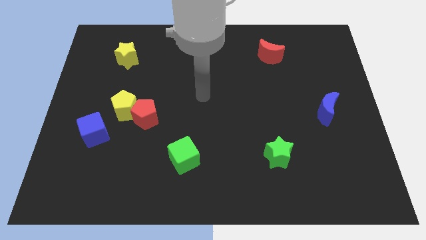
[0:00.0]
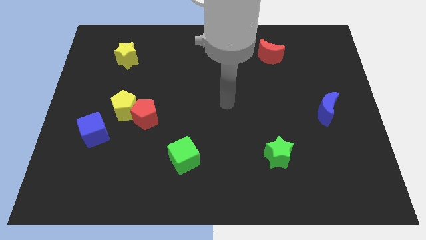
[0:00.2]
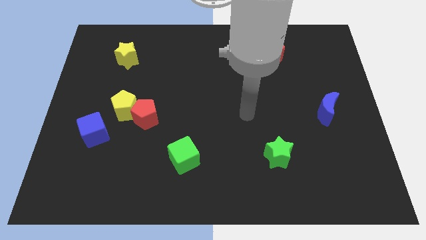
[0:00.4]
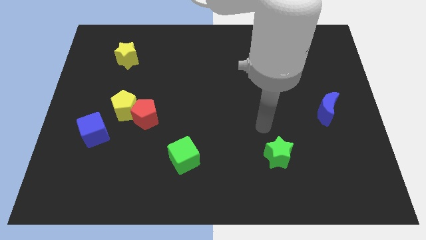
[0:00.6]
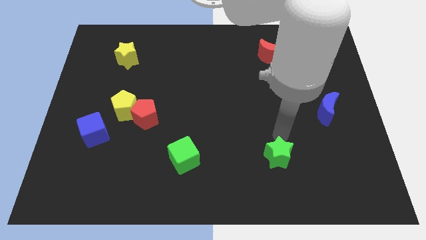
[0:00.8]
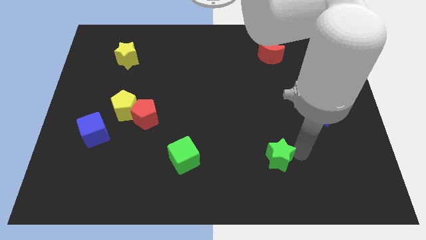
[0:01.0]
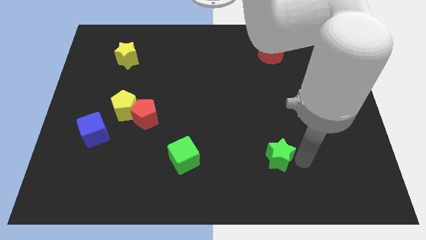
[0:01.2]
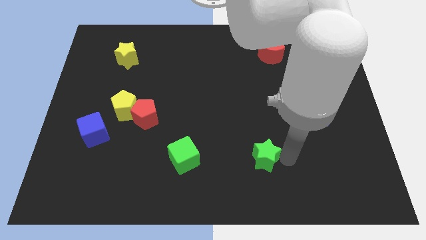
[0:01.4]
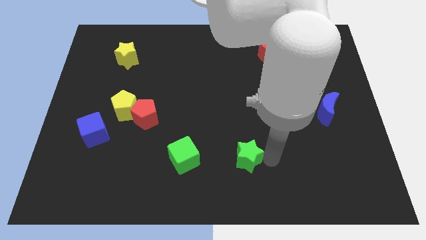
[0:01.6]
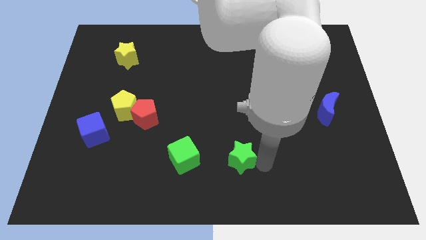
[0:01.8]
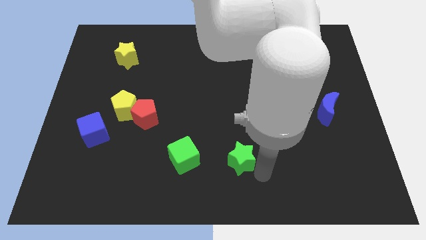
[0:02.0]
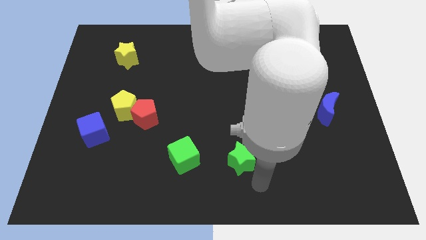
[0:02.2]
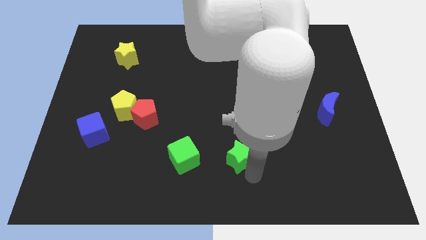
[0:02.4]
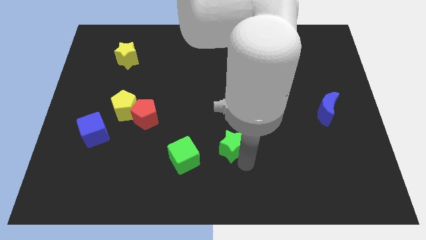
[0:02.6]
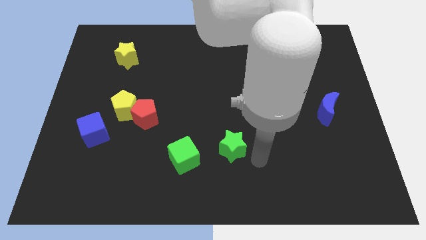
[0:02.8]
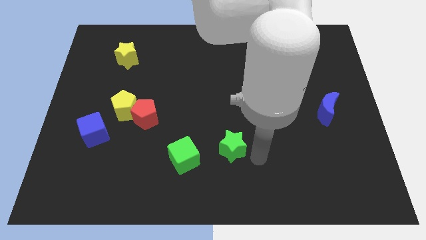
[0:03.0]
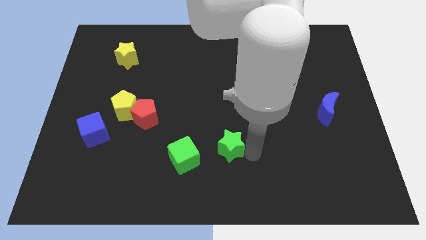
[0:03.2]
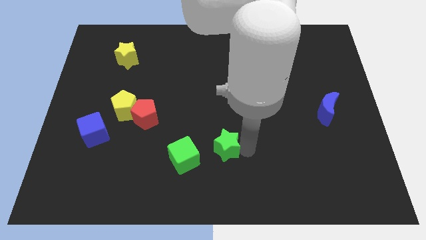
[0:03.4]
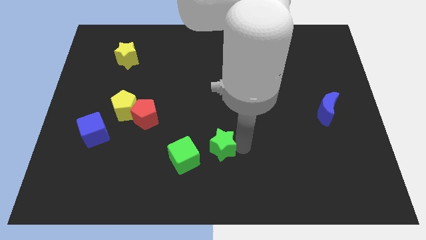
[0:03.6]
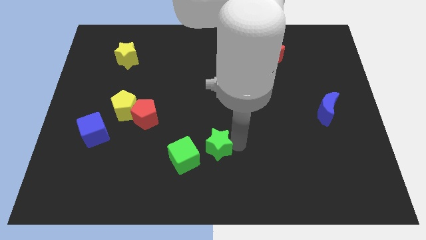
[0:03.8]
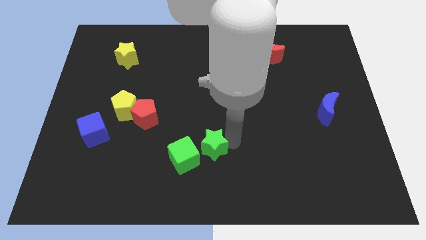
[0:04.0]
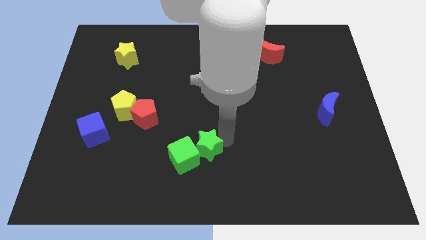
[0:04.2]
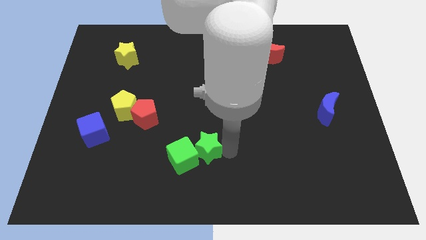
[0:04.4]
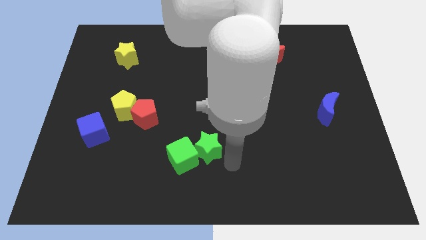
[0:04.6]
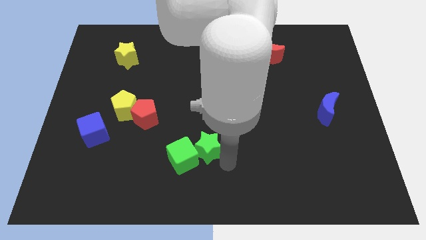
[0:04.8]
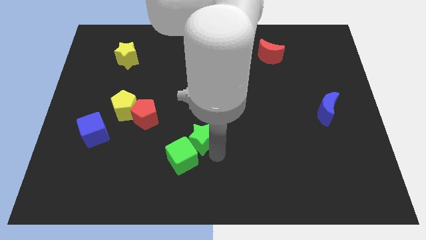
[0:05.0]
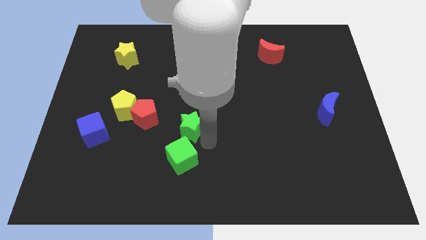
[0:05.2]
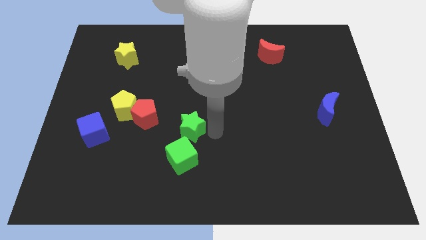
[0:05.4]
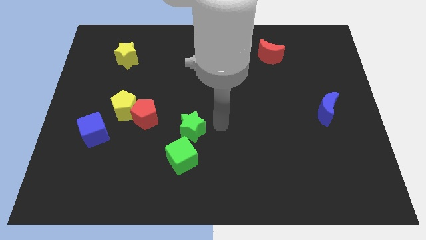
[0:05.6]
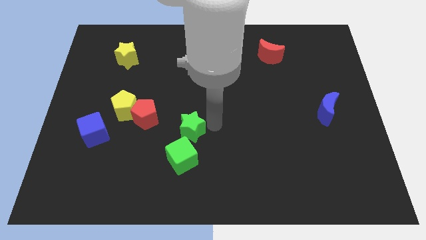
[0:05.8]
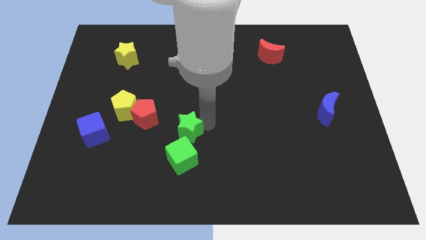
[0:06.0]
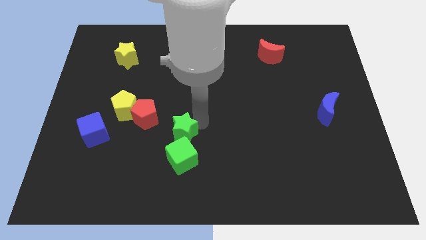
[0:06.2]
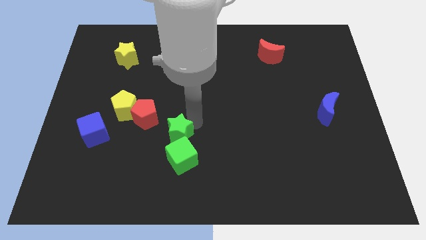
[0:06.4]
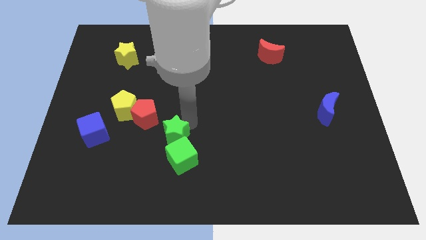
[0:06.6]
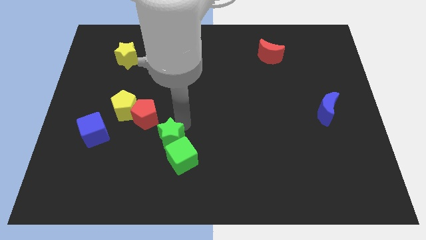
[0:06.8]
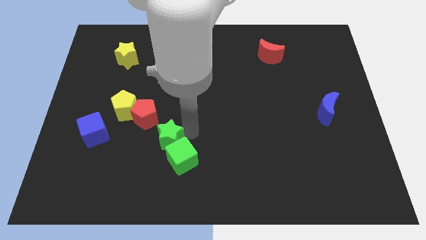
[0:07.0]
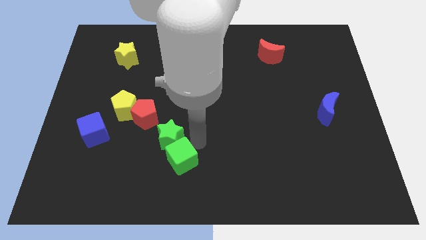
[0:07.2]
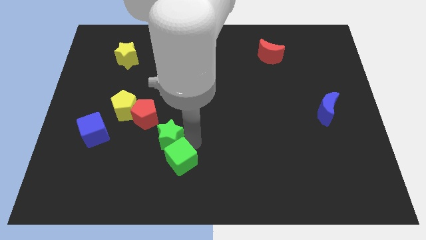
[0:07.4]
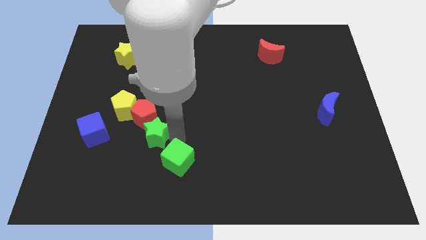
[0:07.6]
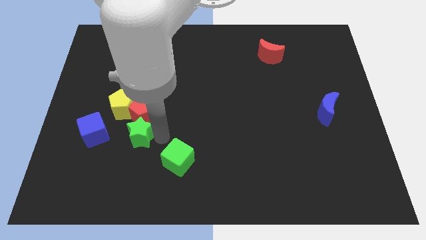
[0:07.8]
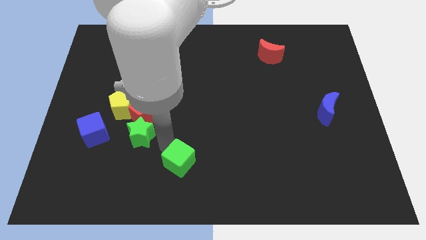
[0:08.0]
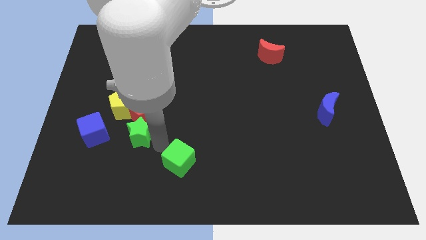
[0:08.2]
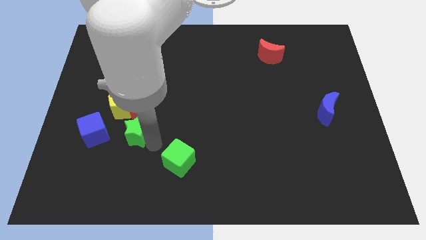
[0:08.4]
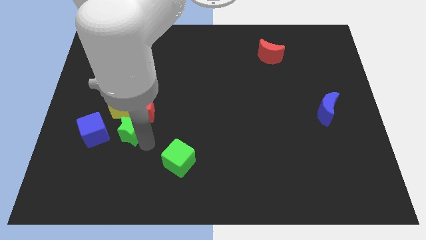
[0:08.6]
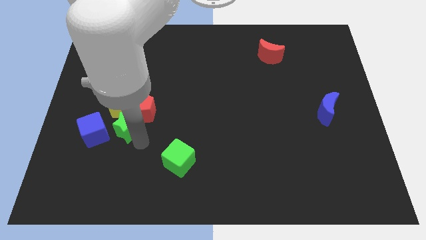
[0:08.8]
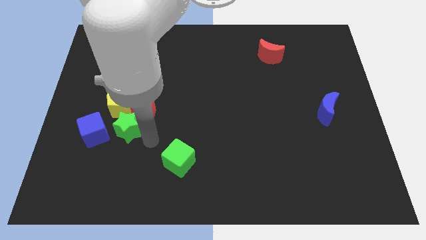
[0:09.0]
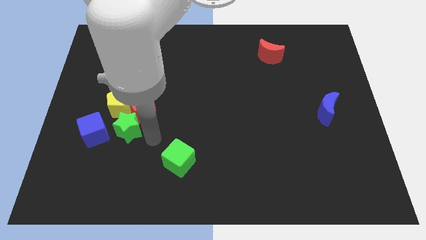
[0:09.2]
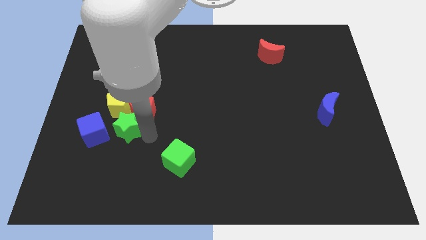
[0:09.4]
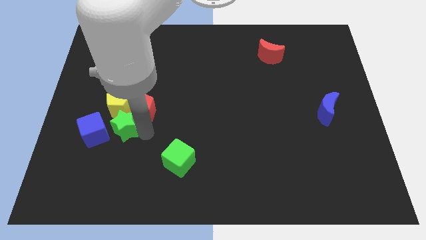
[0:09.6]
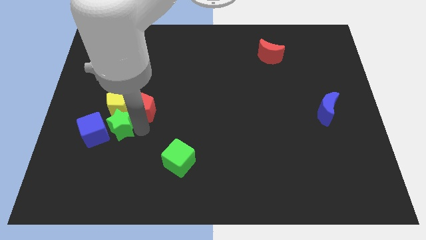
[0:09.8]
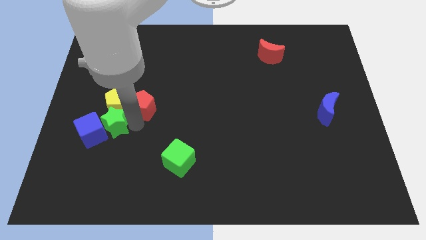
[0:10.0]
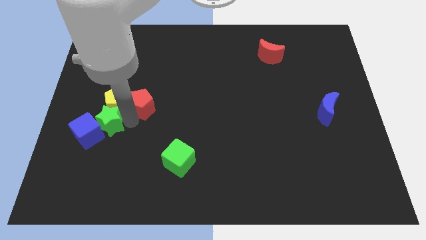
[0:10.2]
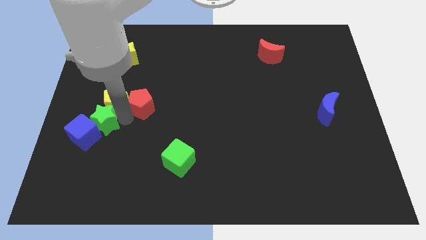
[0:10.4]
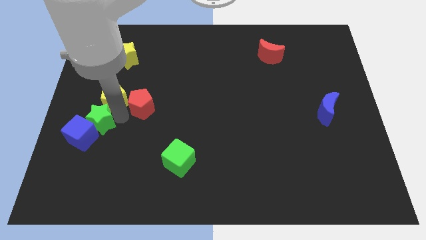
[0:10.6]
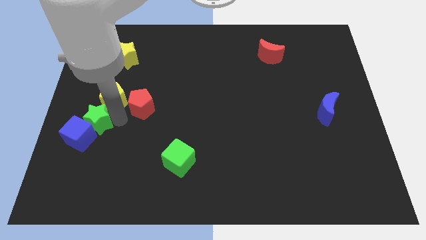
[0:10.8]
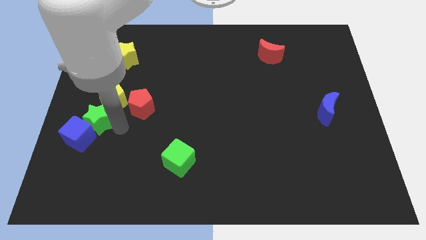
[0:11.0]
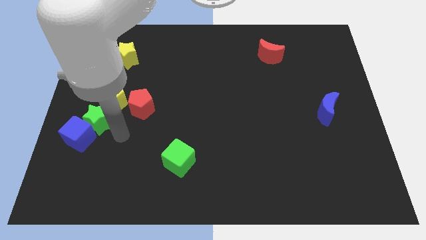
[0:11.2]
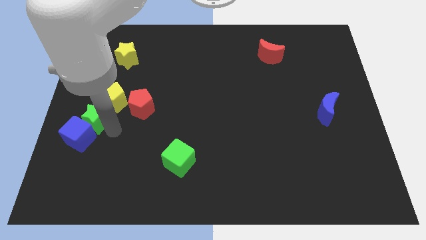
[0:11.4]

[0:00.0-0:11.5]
move the green star to the left side of the board
